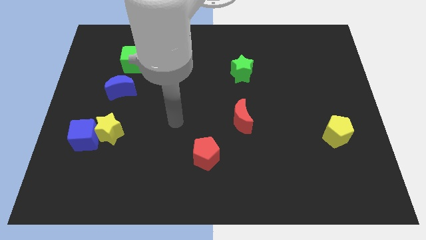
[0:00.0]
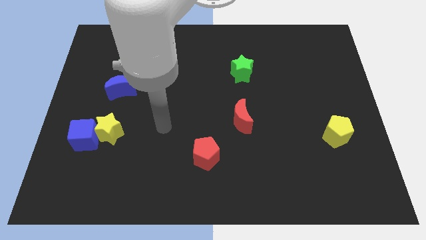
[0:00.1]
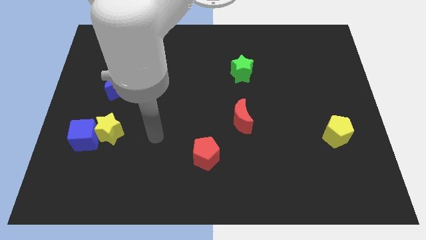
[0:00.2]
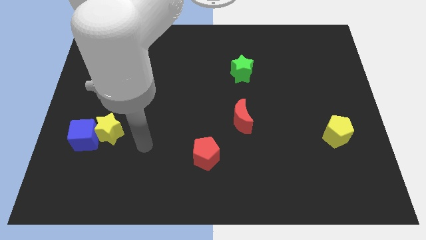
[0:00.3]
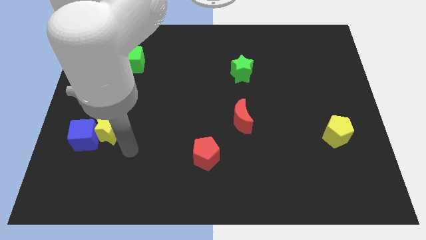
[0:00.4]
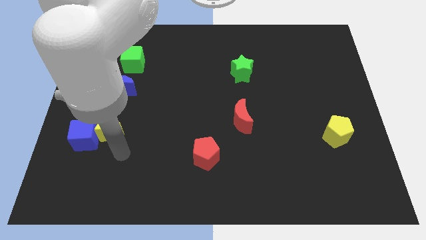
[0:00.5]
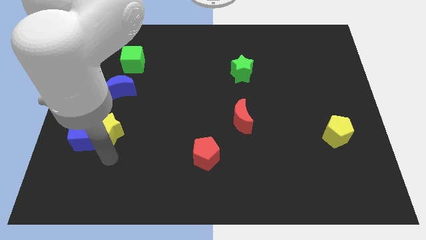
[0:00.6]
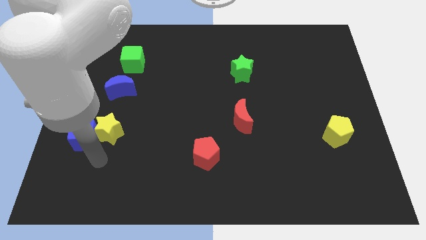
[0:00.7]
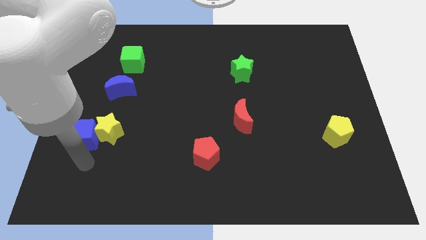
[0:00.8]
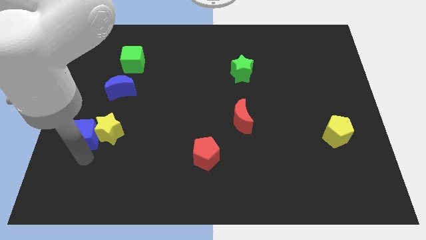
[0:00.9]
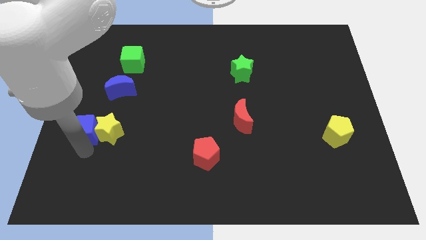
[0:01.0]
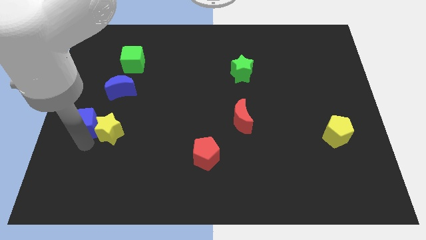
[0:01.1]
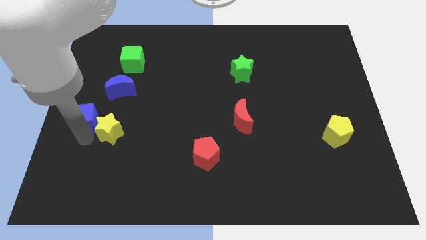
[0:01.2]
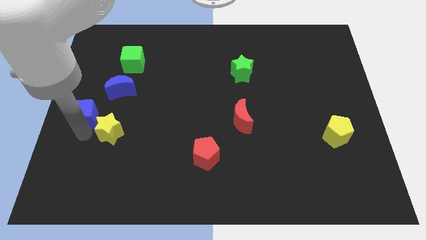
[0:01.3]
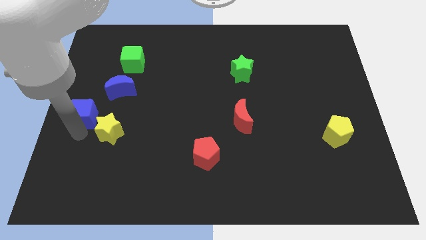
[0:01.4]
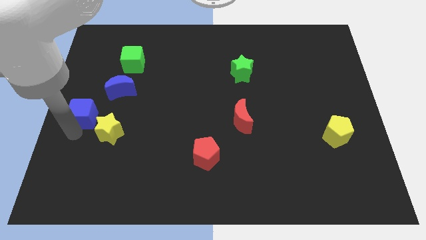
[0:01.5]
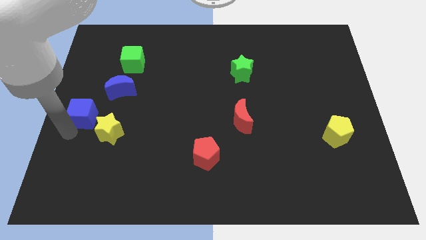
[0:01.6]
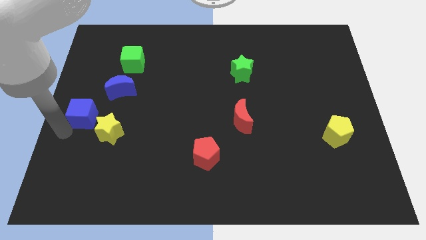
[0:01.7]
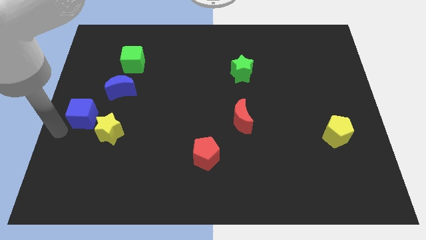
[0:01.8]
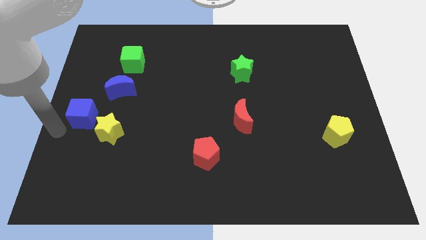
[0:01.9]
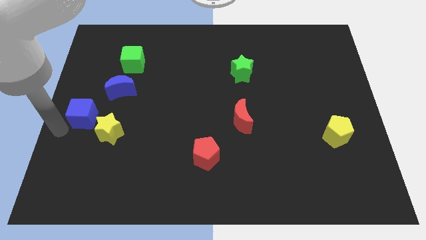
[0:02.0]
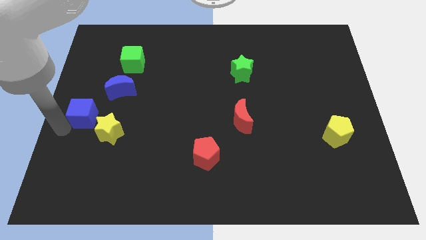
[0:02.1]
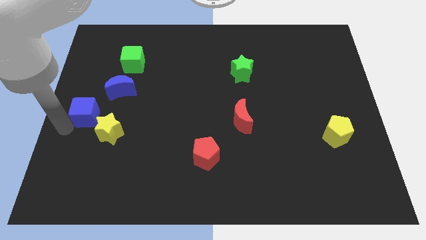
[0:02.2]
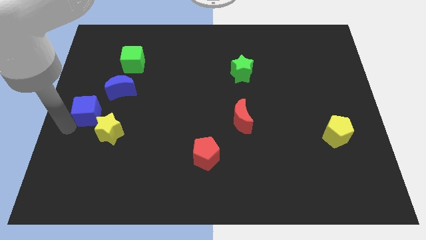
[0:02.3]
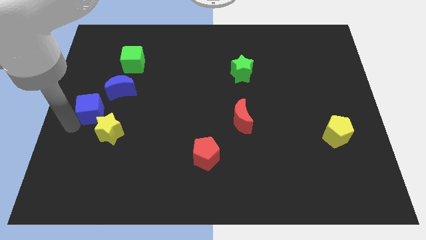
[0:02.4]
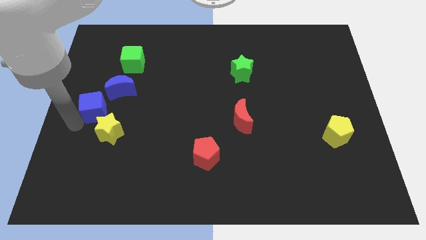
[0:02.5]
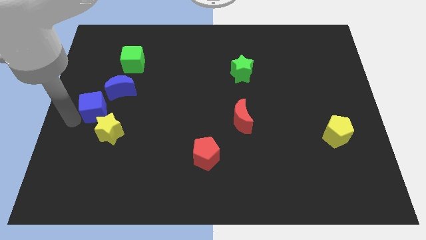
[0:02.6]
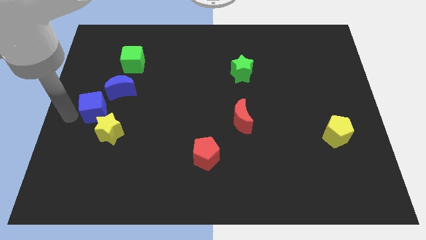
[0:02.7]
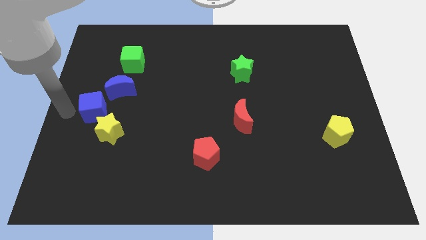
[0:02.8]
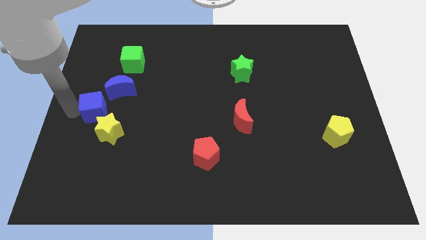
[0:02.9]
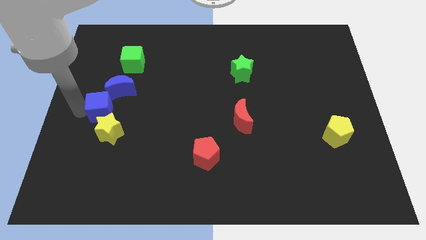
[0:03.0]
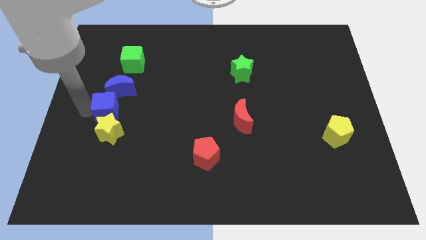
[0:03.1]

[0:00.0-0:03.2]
slide the blue cube upwards and then right slightly

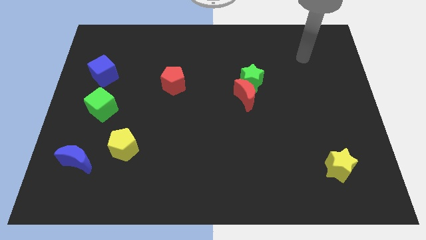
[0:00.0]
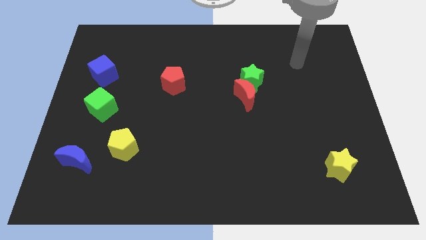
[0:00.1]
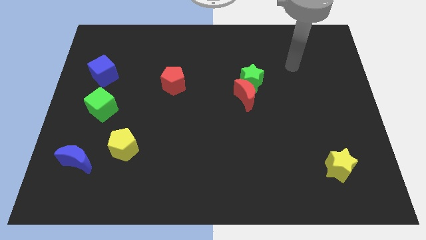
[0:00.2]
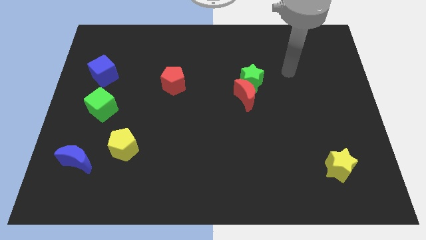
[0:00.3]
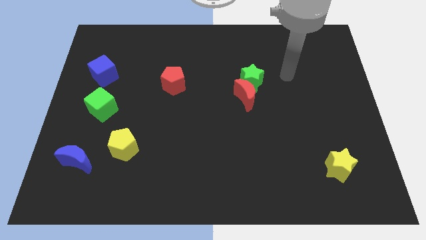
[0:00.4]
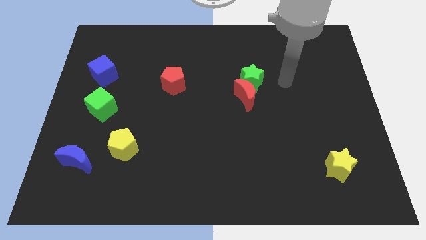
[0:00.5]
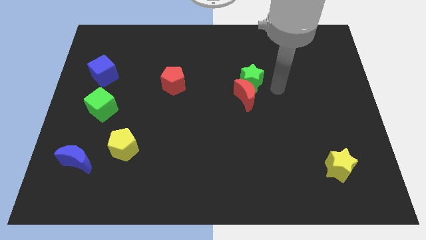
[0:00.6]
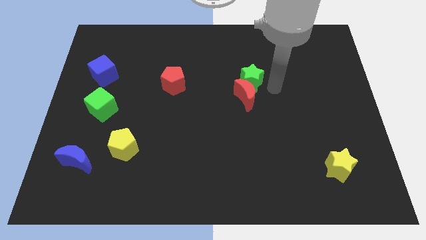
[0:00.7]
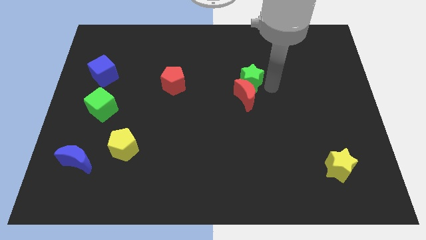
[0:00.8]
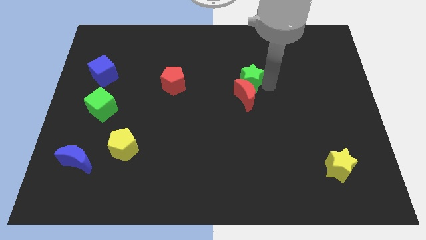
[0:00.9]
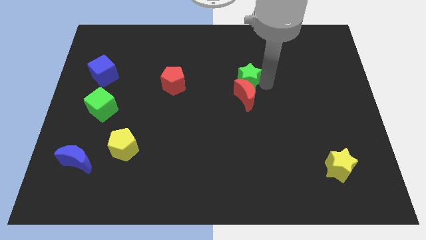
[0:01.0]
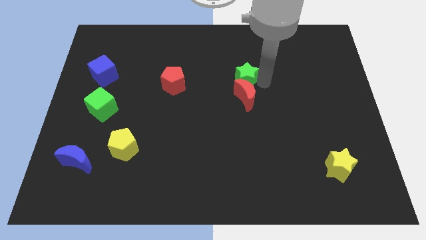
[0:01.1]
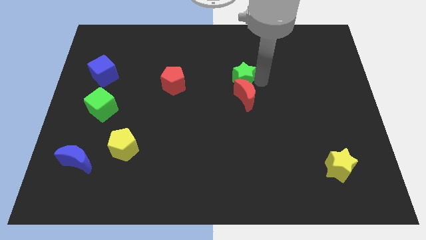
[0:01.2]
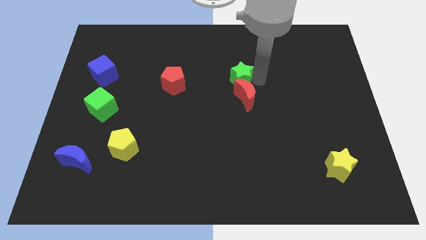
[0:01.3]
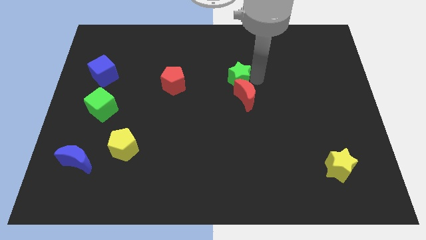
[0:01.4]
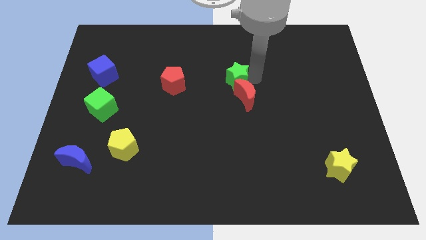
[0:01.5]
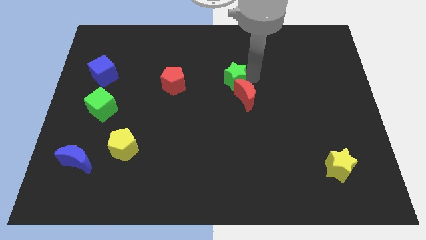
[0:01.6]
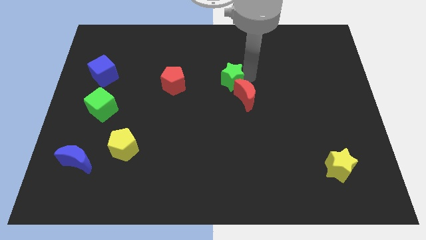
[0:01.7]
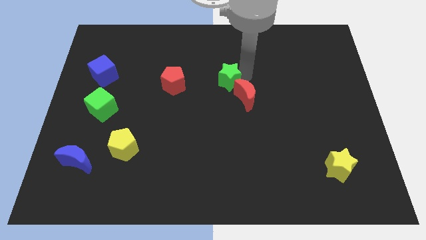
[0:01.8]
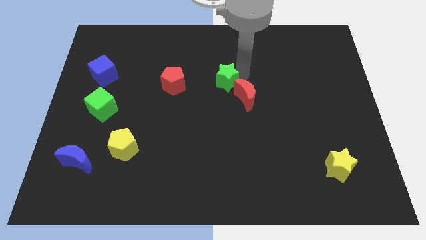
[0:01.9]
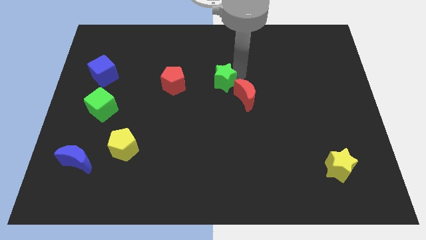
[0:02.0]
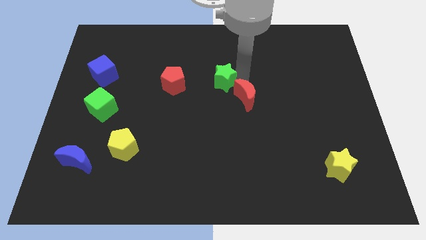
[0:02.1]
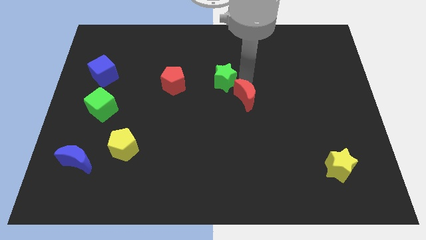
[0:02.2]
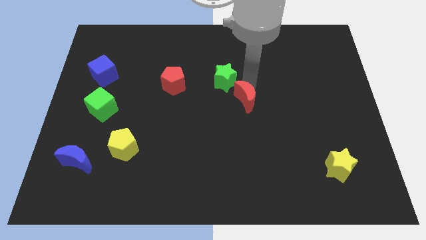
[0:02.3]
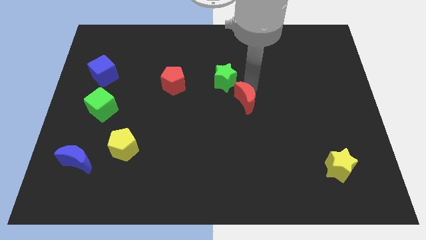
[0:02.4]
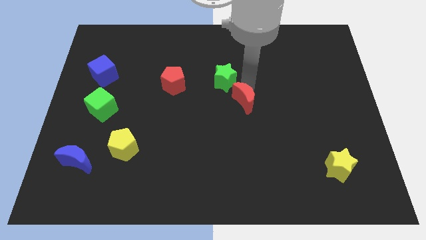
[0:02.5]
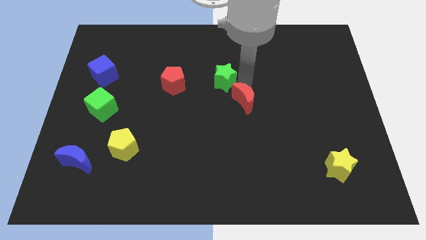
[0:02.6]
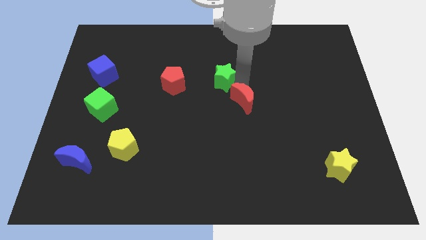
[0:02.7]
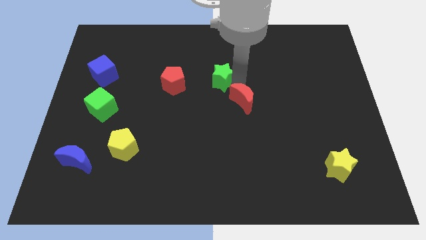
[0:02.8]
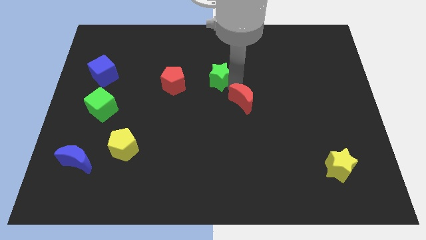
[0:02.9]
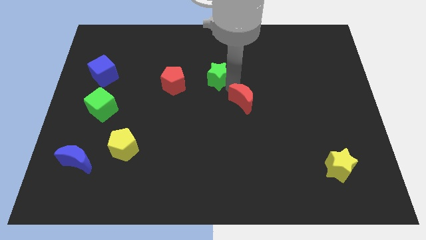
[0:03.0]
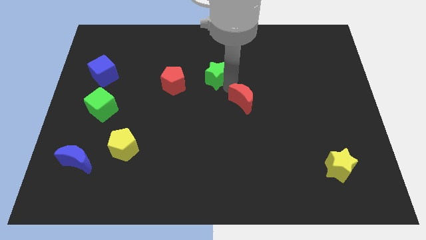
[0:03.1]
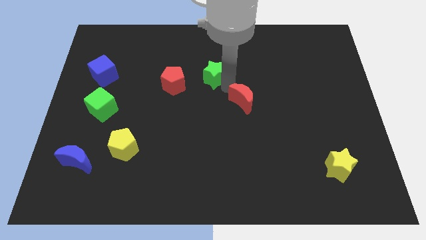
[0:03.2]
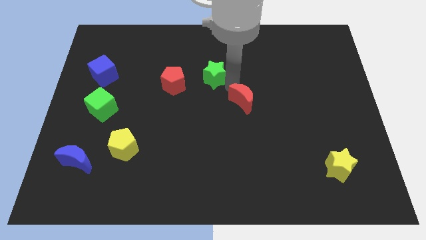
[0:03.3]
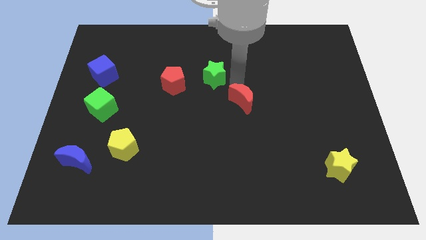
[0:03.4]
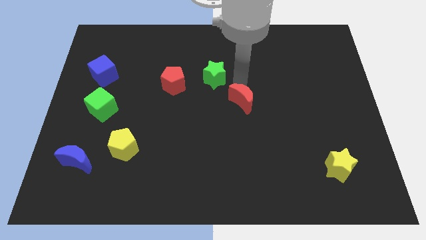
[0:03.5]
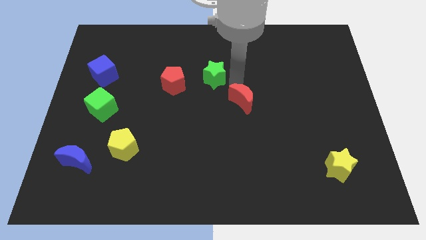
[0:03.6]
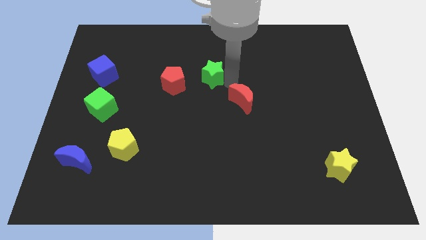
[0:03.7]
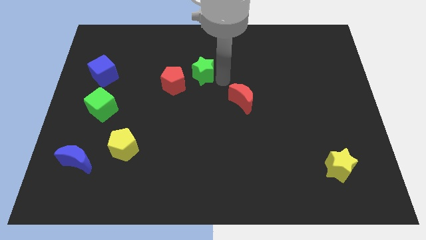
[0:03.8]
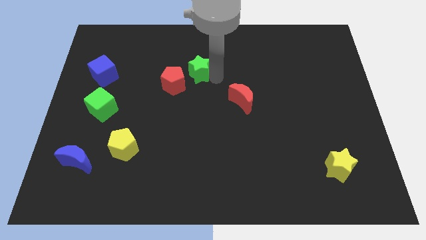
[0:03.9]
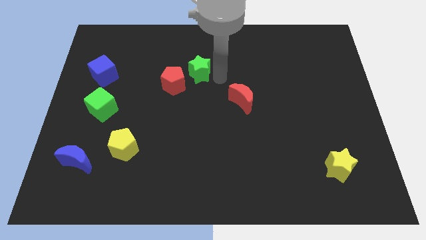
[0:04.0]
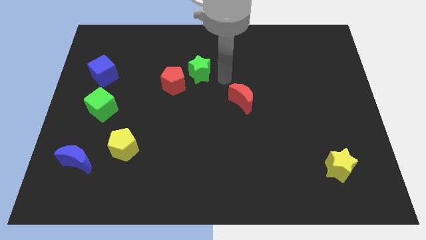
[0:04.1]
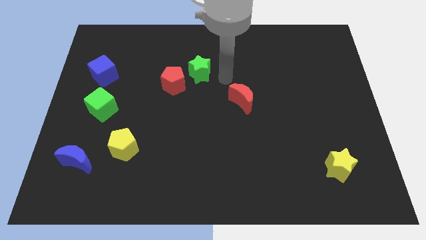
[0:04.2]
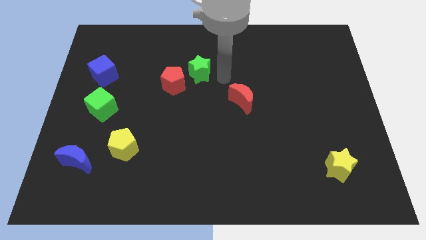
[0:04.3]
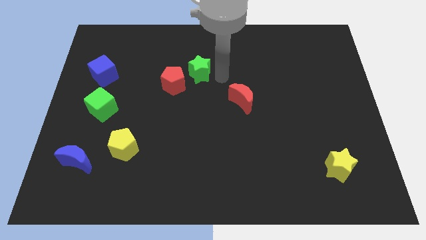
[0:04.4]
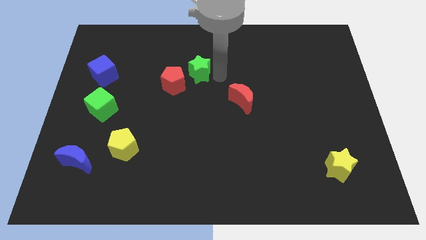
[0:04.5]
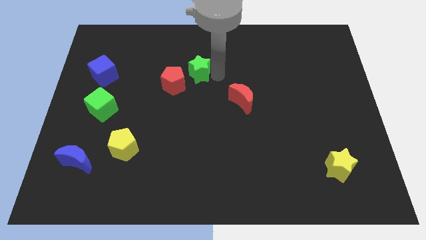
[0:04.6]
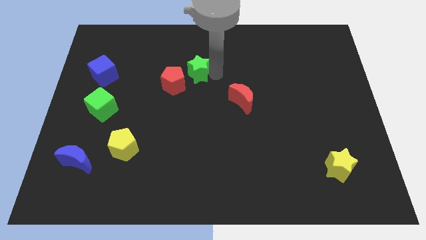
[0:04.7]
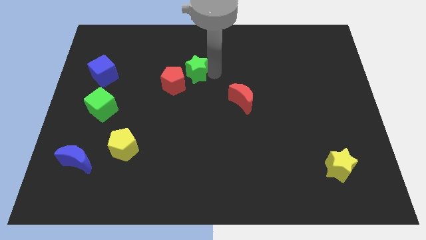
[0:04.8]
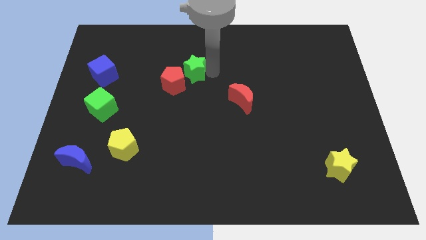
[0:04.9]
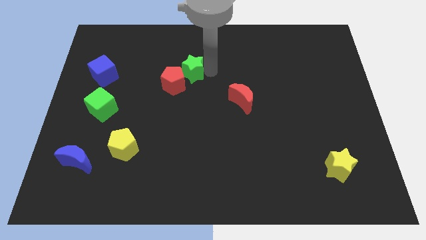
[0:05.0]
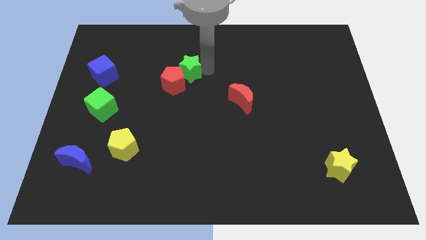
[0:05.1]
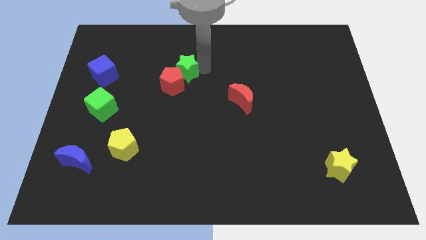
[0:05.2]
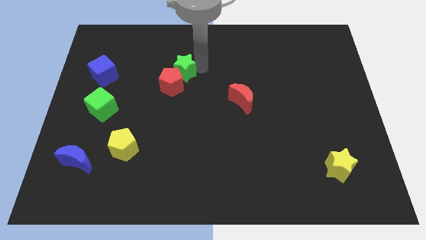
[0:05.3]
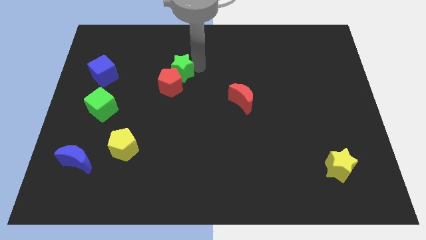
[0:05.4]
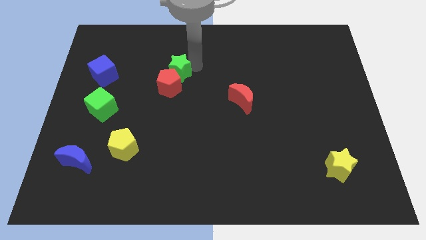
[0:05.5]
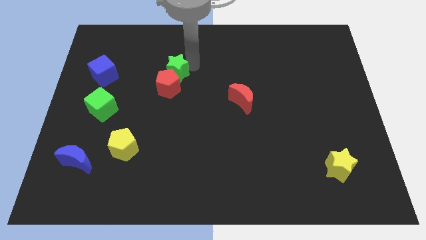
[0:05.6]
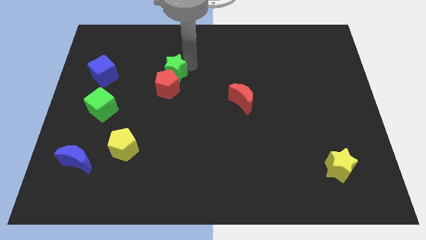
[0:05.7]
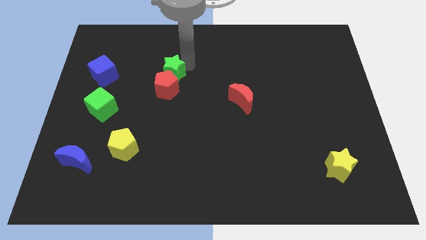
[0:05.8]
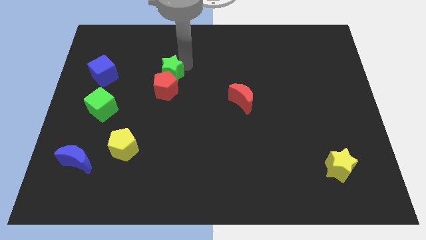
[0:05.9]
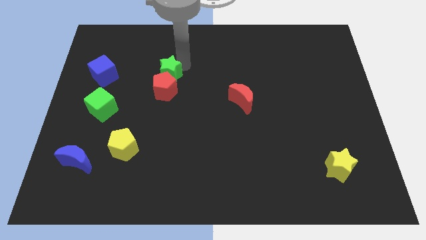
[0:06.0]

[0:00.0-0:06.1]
slide the green star to the left
